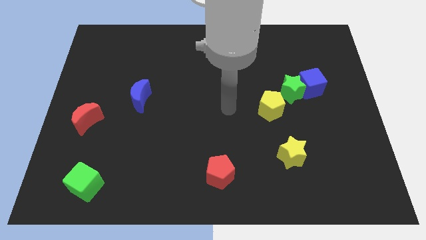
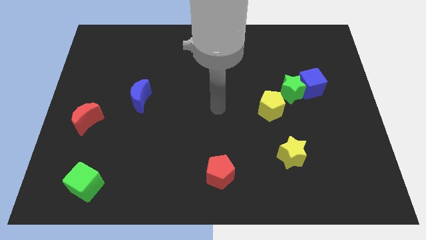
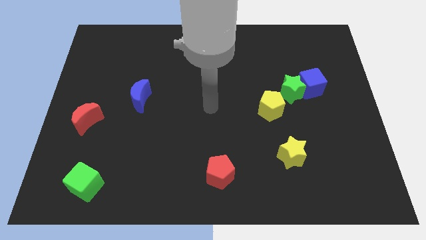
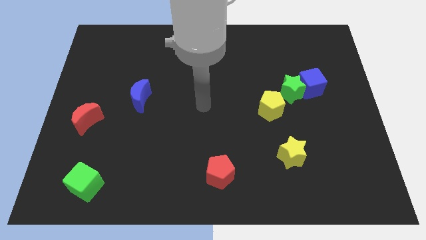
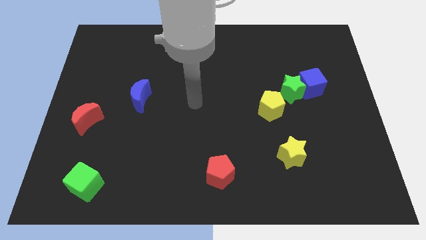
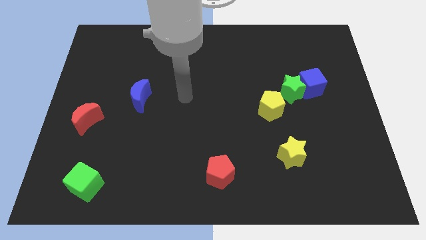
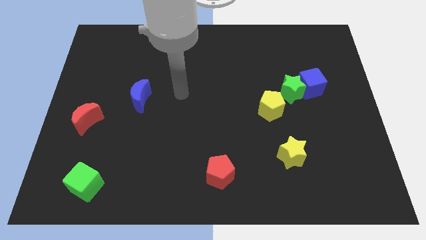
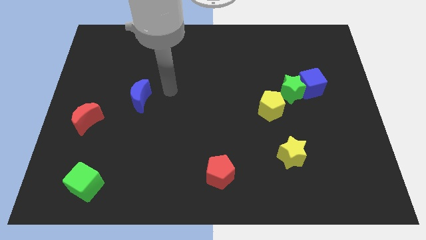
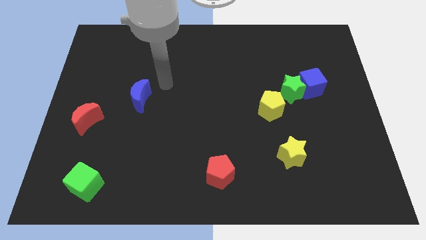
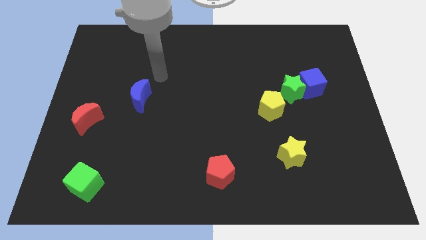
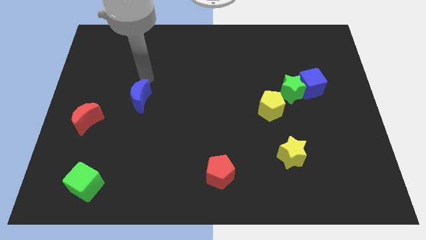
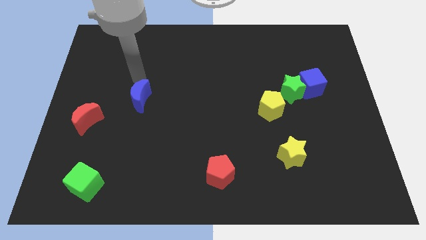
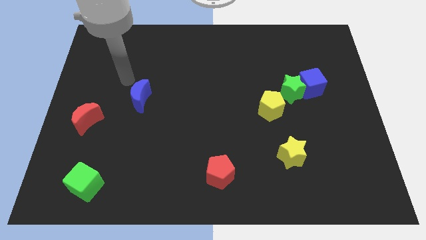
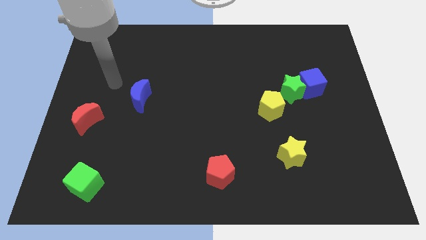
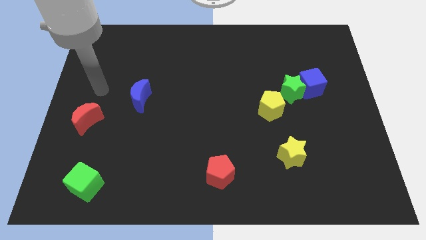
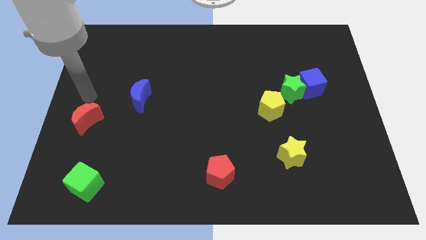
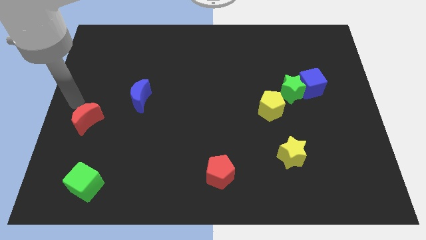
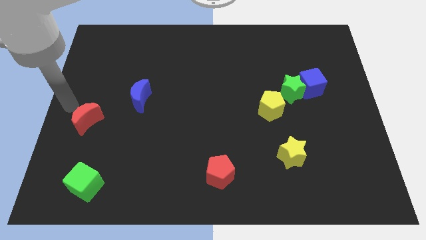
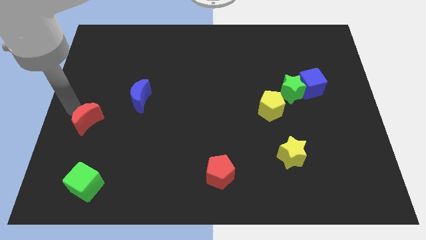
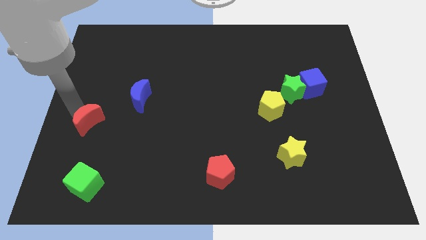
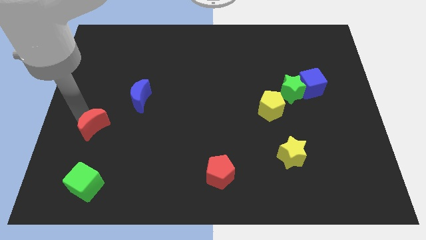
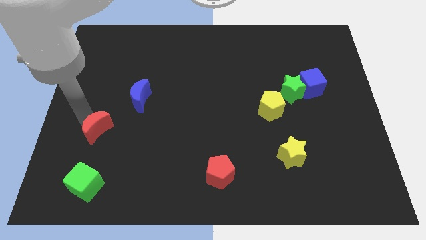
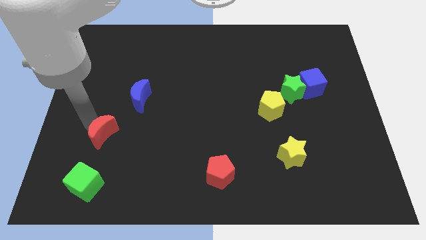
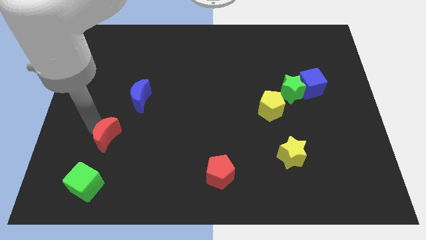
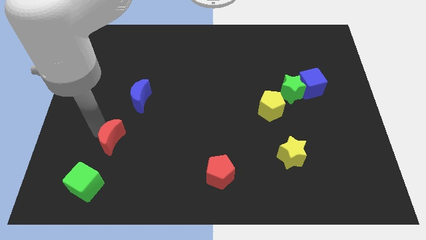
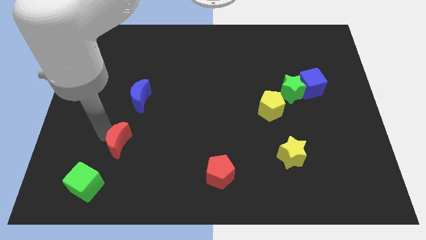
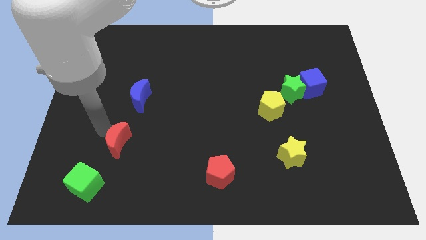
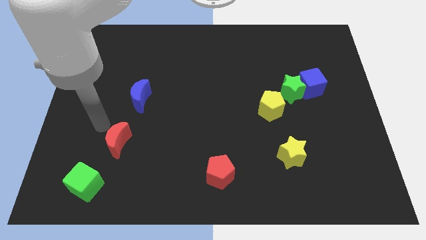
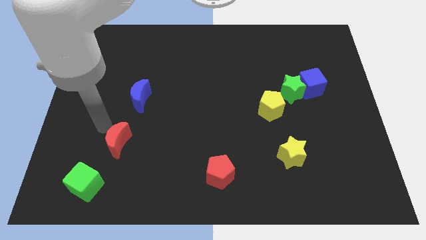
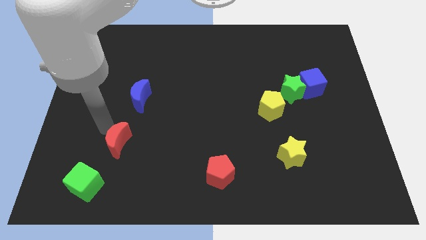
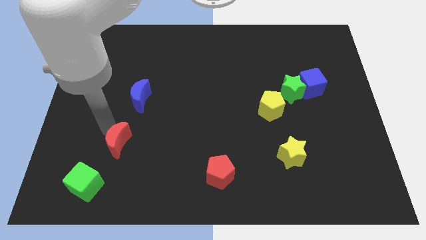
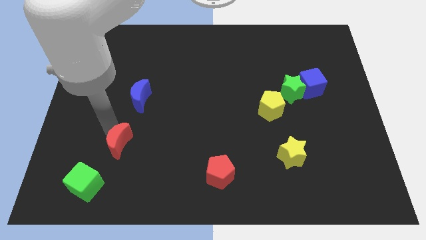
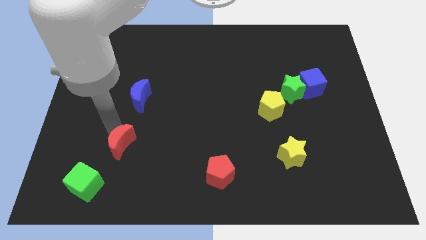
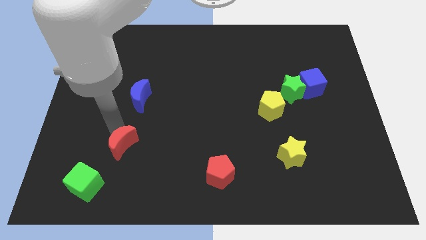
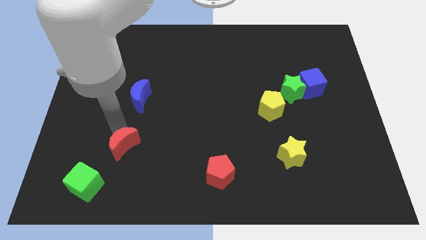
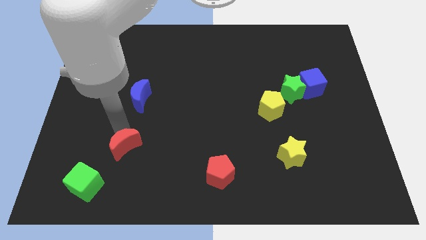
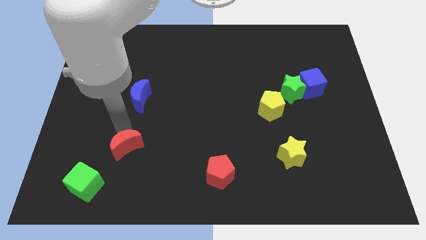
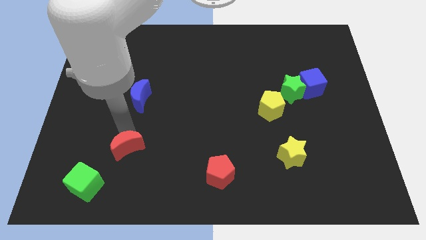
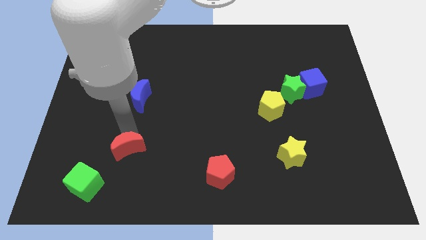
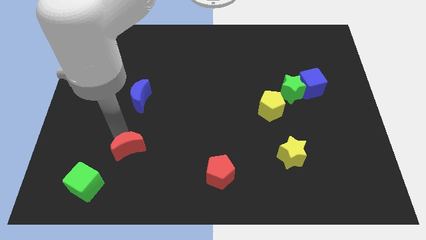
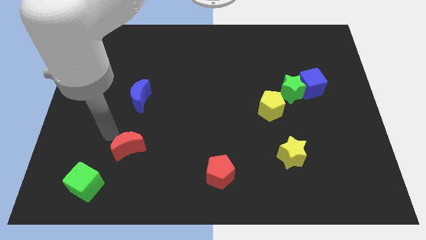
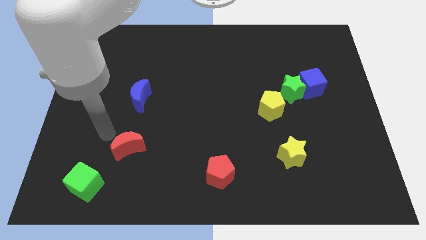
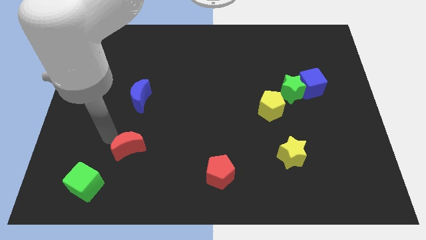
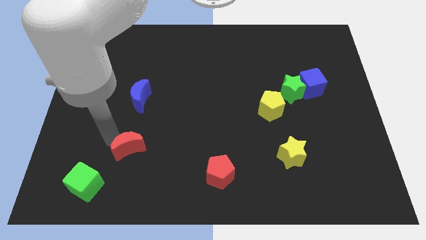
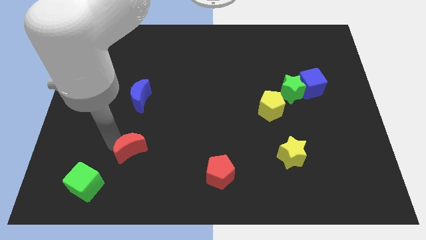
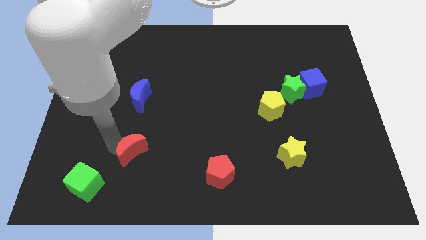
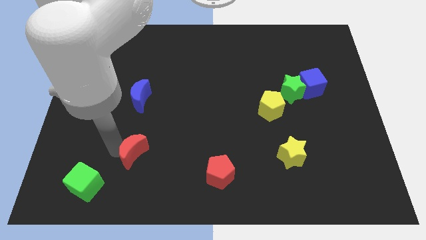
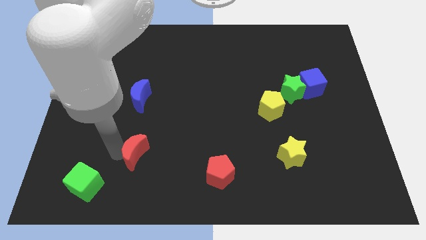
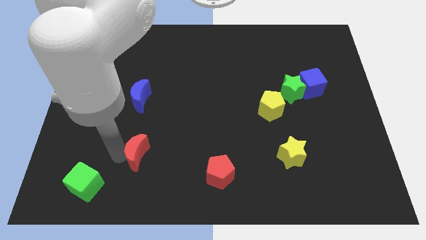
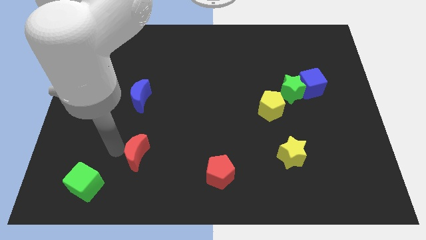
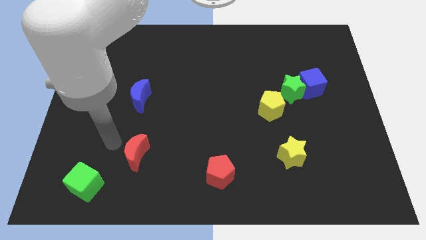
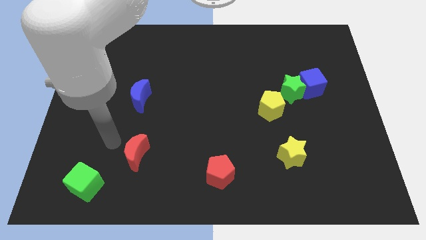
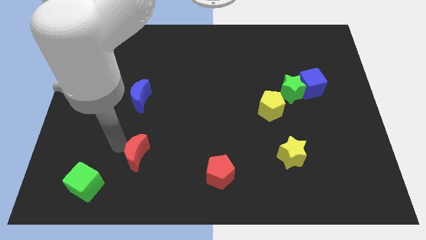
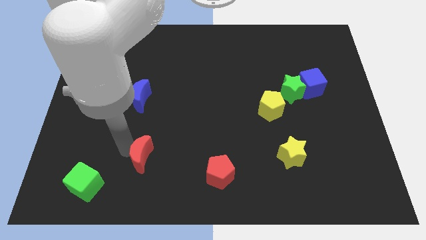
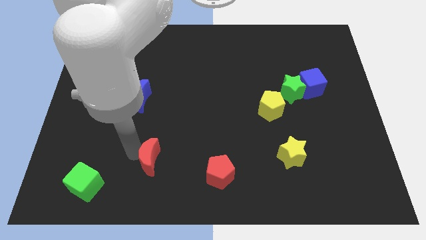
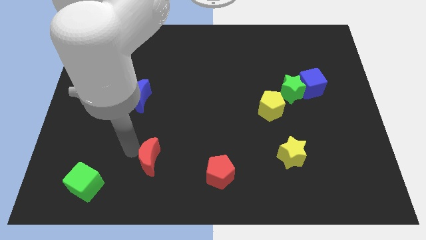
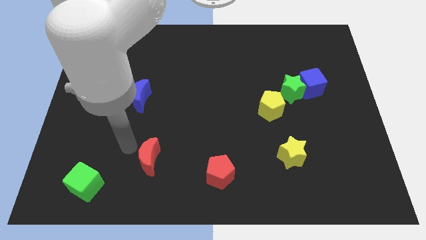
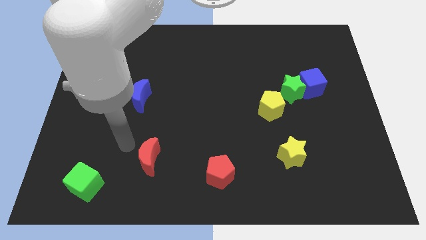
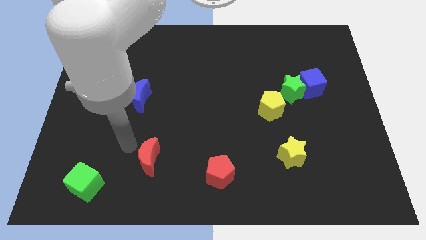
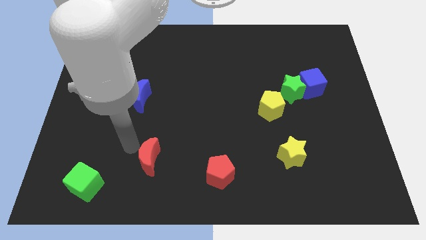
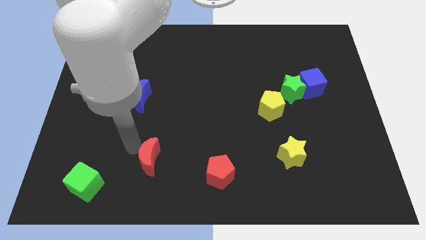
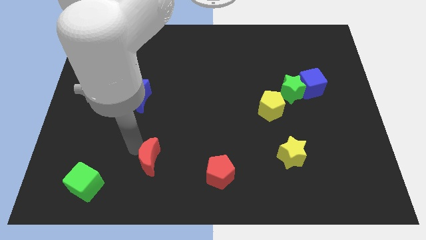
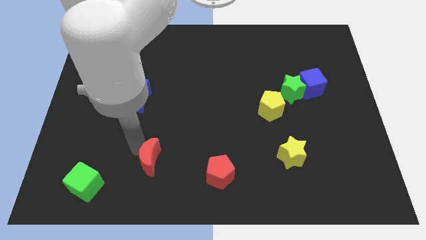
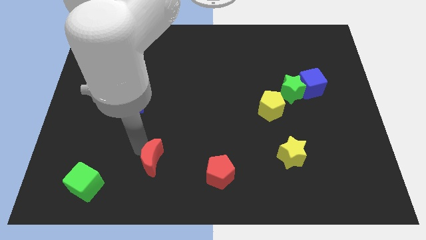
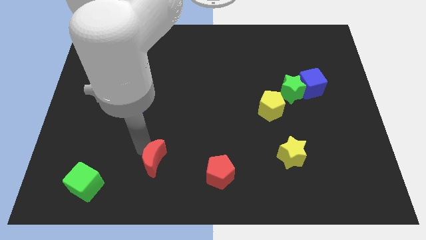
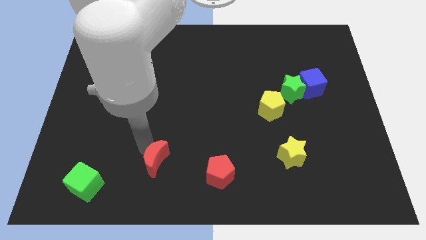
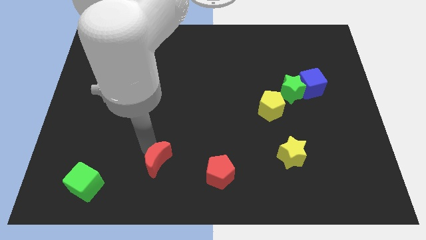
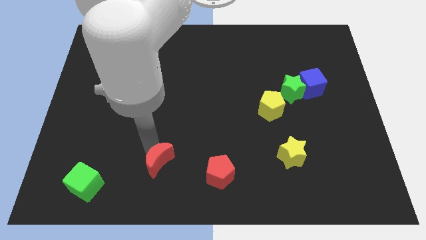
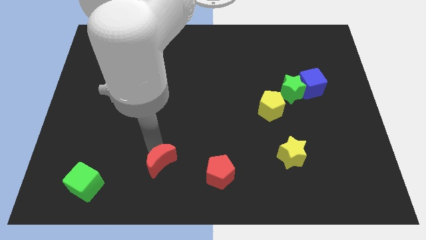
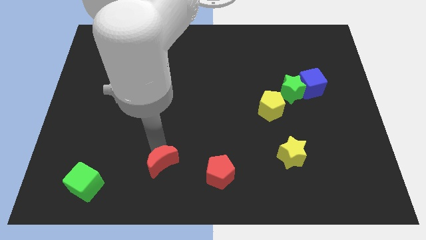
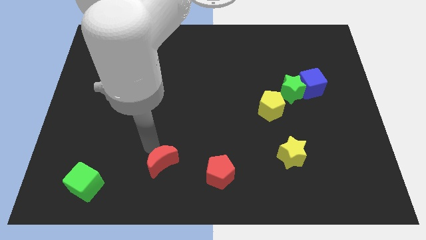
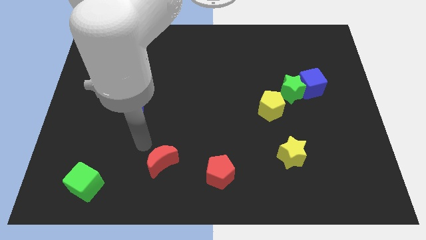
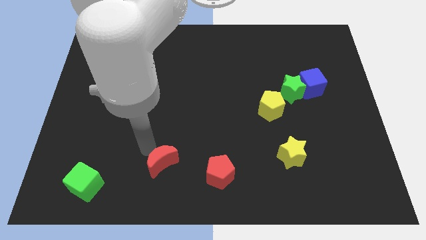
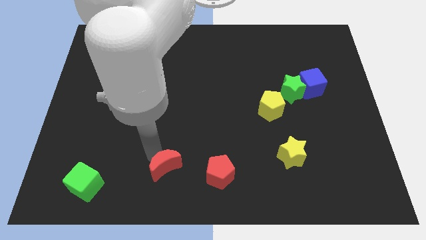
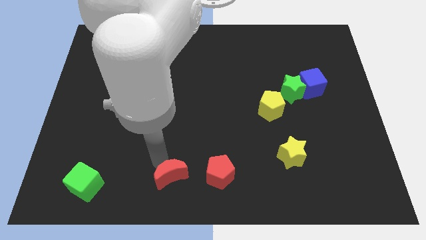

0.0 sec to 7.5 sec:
move the red moon to the bottom
